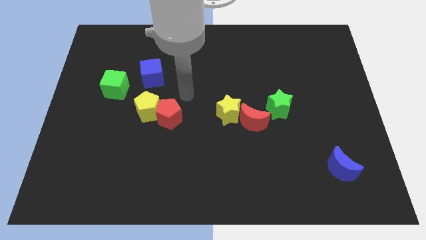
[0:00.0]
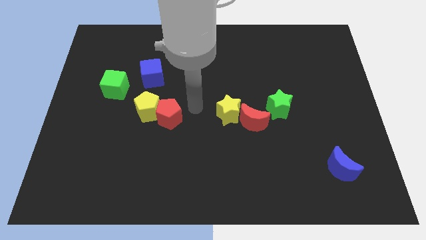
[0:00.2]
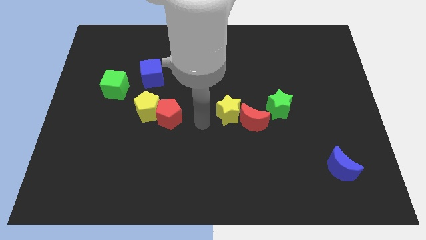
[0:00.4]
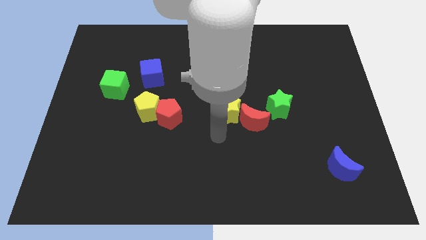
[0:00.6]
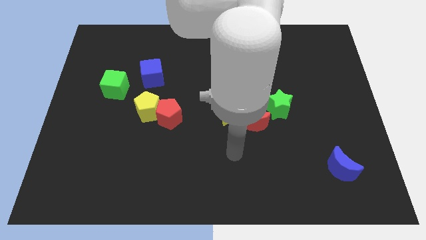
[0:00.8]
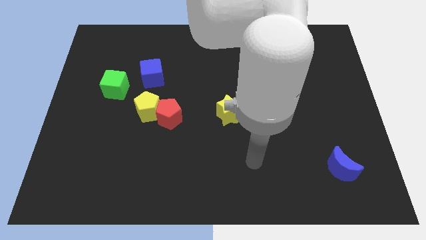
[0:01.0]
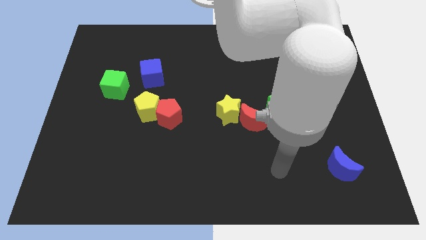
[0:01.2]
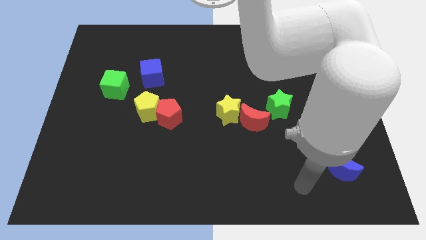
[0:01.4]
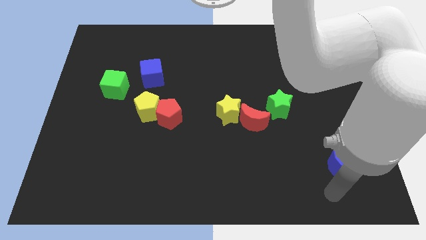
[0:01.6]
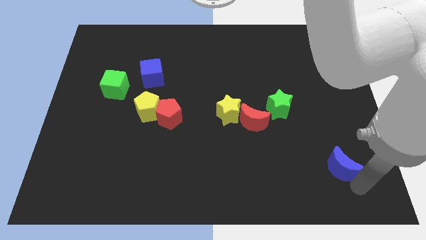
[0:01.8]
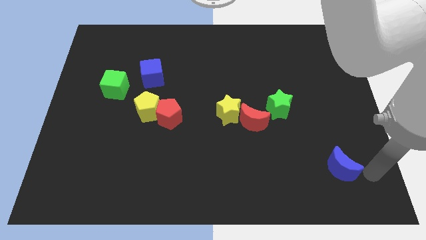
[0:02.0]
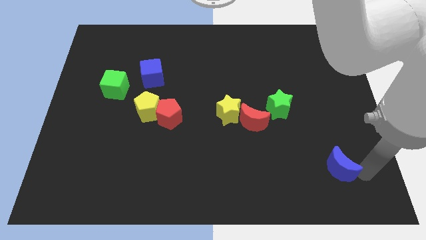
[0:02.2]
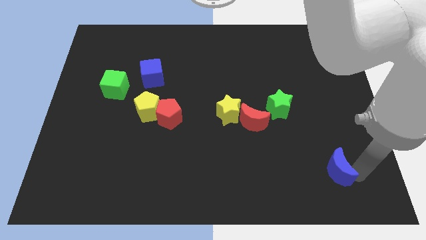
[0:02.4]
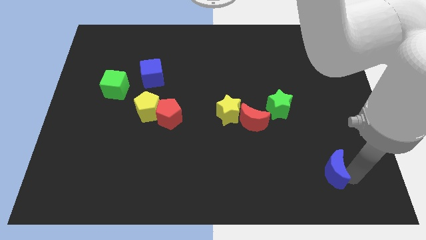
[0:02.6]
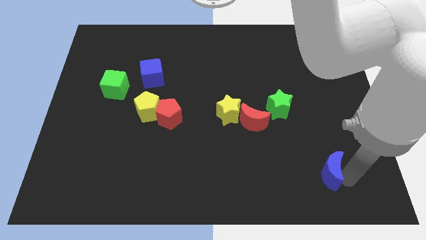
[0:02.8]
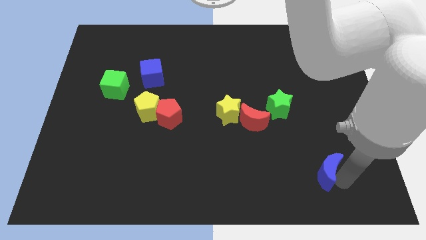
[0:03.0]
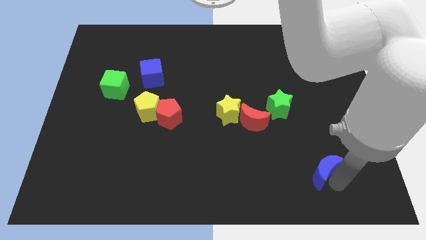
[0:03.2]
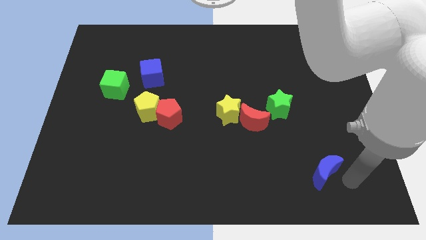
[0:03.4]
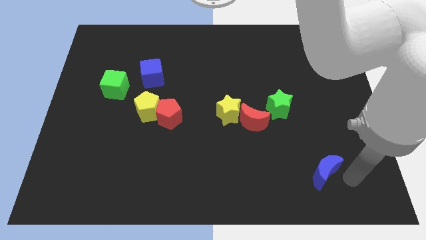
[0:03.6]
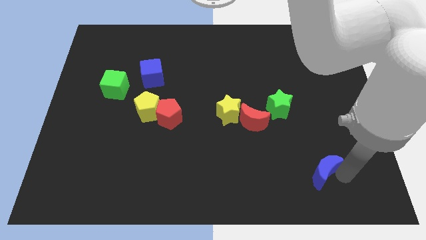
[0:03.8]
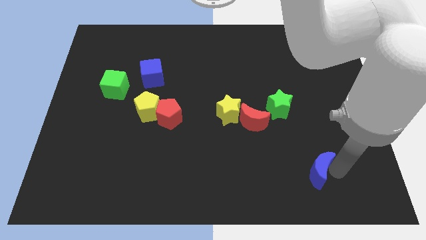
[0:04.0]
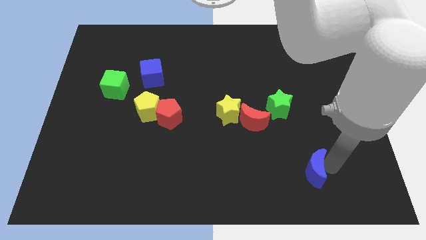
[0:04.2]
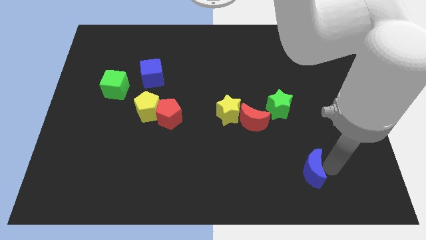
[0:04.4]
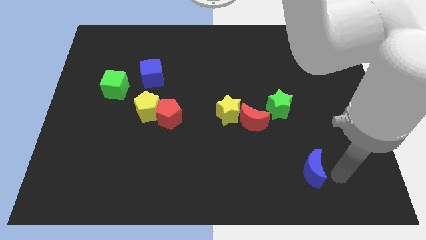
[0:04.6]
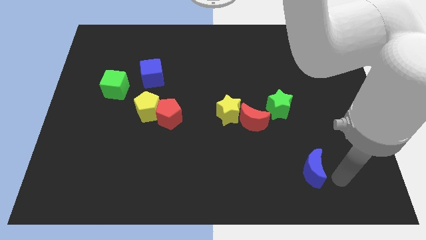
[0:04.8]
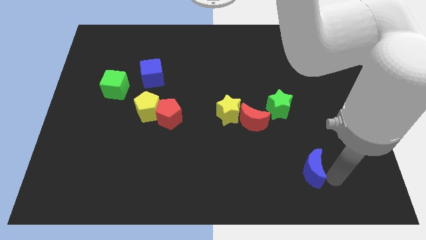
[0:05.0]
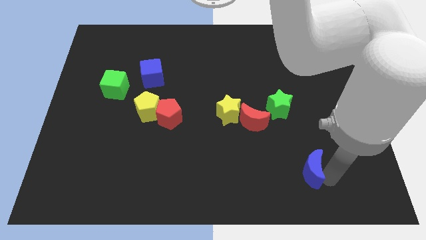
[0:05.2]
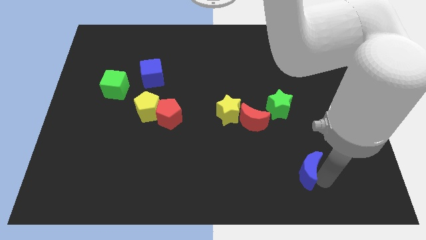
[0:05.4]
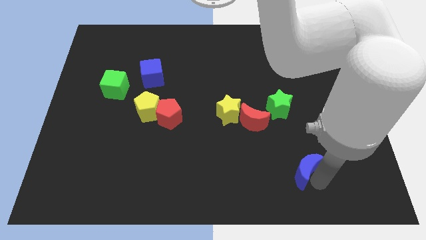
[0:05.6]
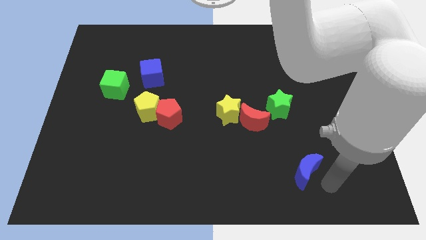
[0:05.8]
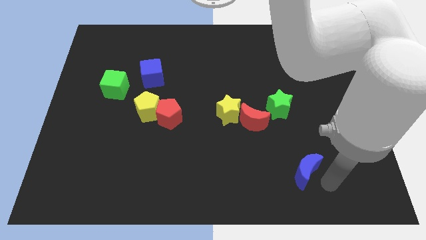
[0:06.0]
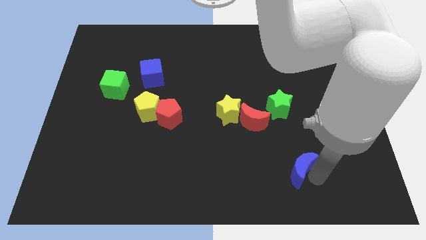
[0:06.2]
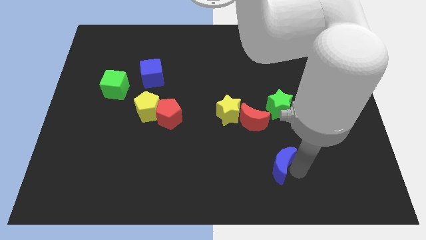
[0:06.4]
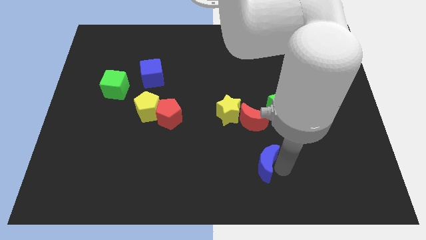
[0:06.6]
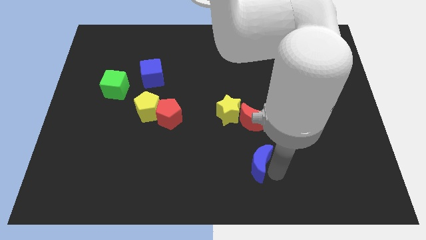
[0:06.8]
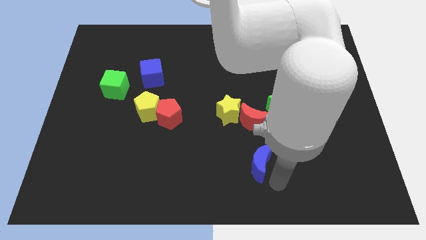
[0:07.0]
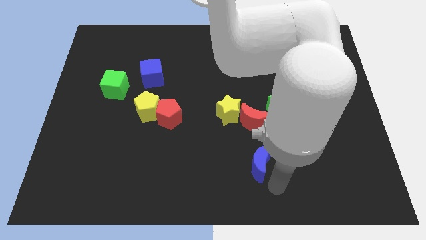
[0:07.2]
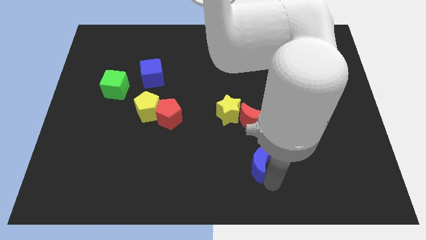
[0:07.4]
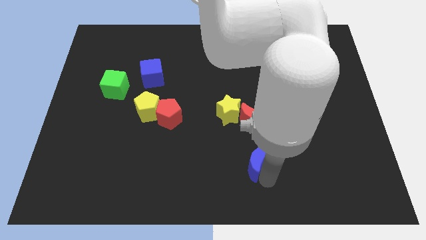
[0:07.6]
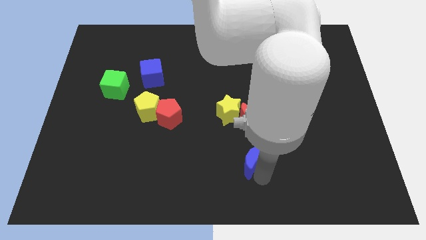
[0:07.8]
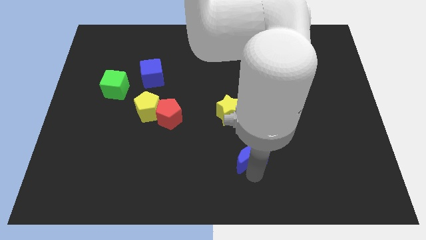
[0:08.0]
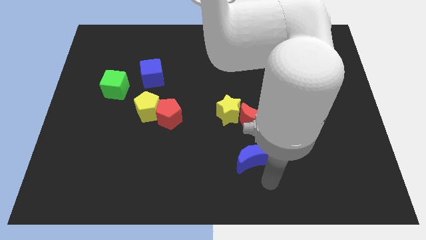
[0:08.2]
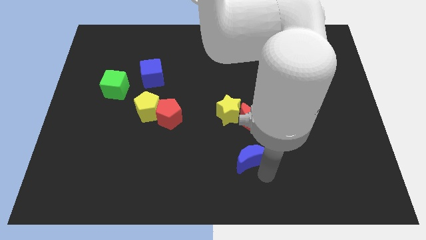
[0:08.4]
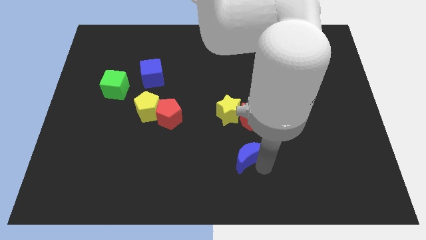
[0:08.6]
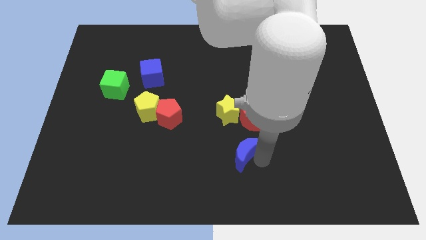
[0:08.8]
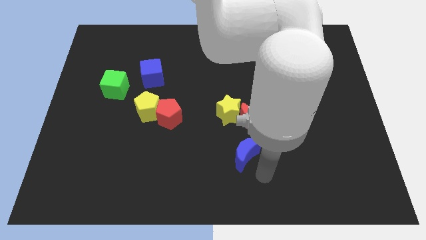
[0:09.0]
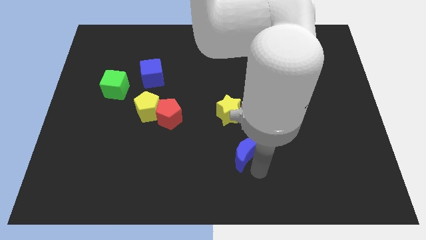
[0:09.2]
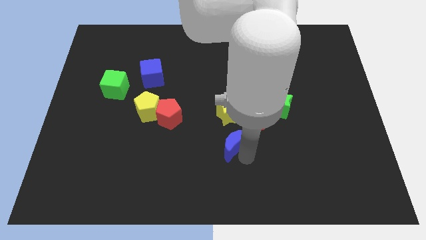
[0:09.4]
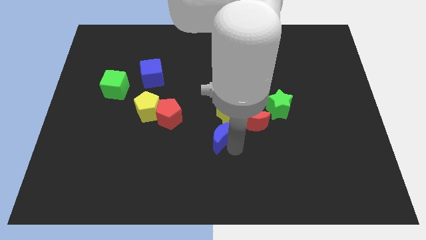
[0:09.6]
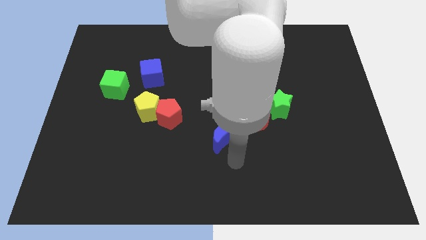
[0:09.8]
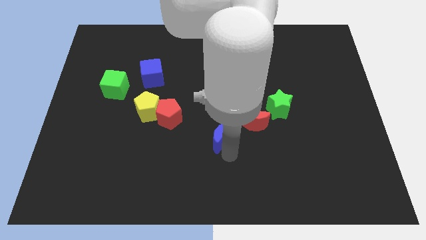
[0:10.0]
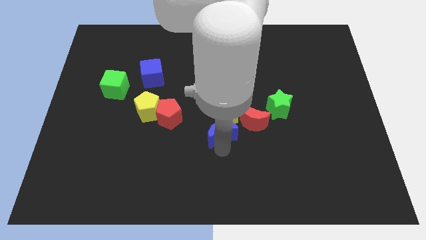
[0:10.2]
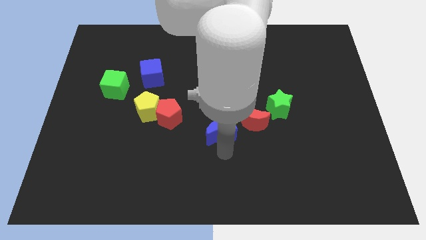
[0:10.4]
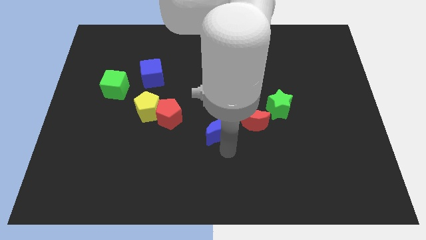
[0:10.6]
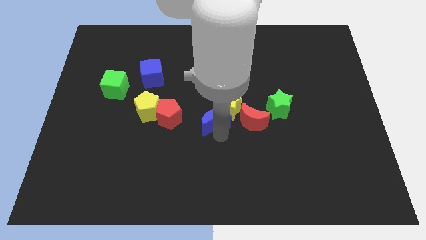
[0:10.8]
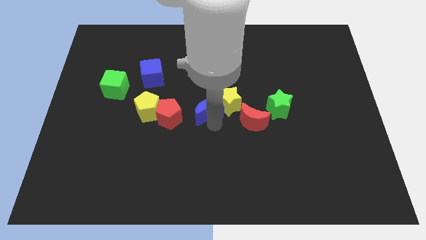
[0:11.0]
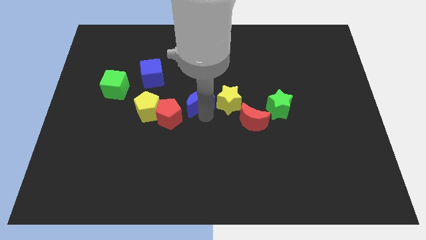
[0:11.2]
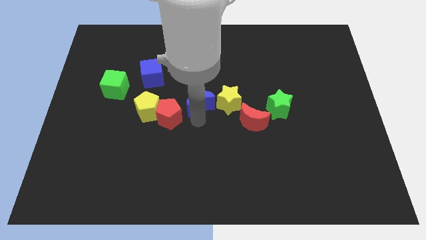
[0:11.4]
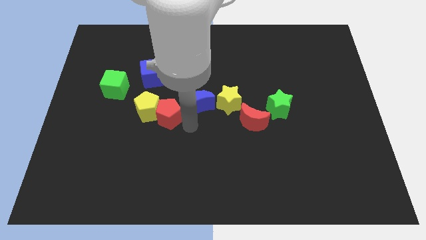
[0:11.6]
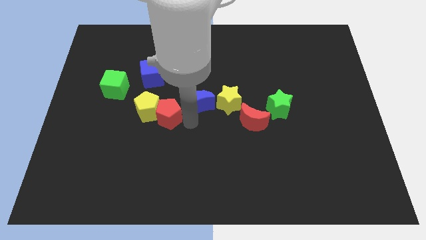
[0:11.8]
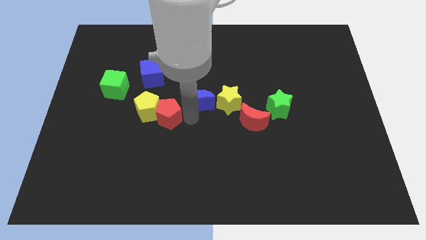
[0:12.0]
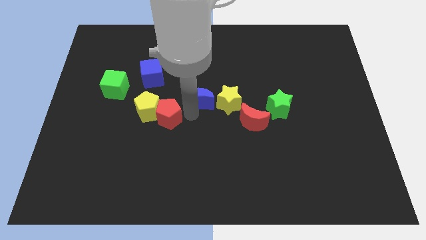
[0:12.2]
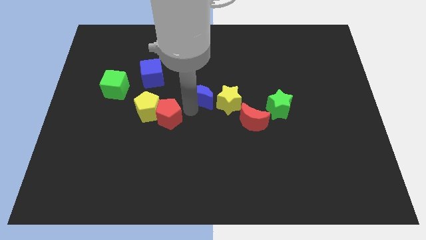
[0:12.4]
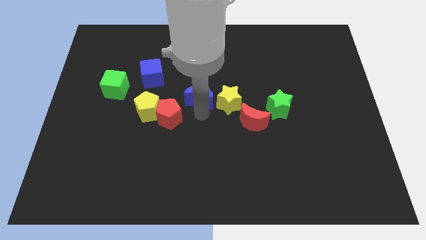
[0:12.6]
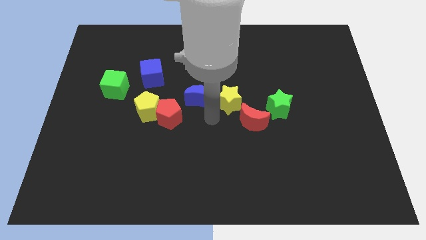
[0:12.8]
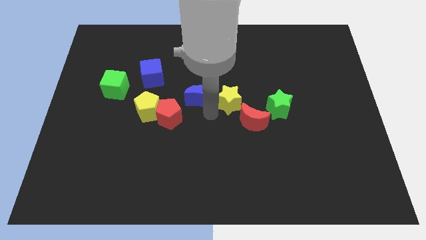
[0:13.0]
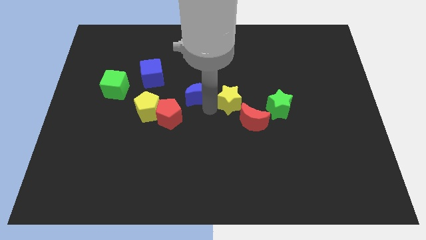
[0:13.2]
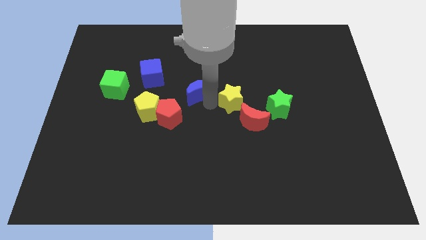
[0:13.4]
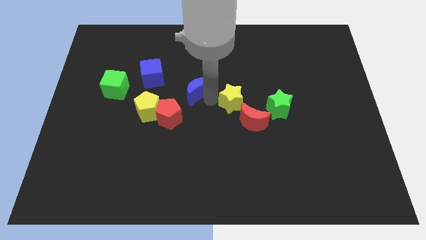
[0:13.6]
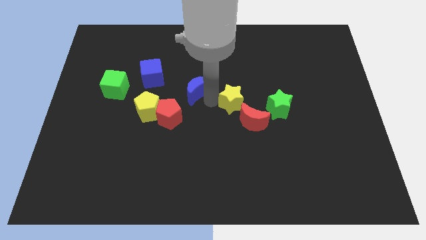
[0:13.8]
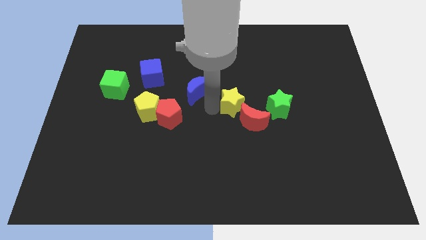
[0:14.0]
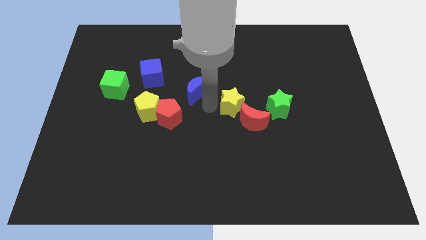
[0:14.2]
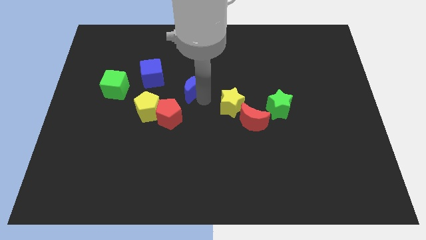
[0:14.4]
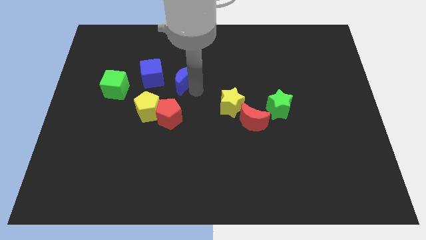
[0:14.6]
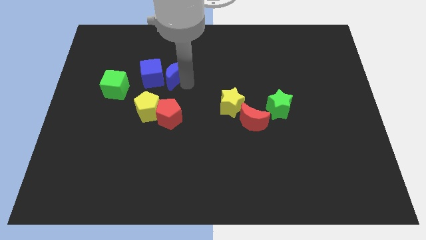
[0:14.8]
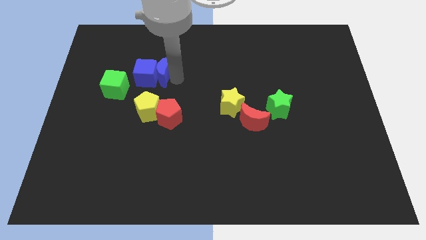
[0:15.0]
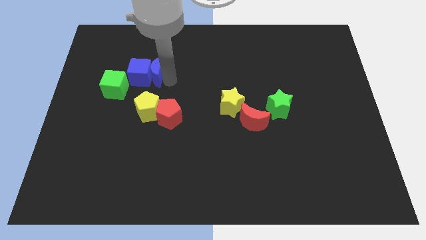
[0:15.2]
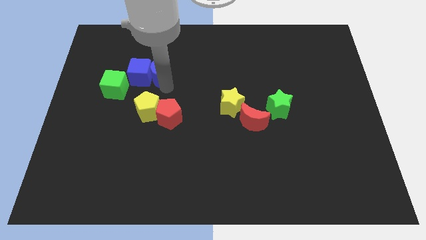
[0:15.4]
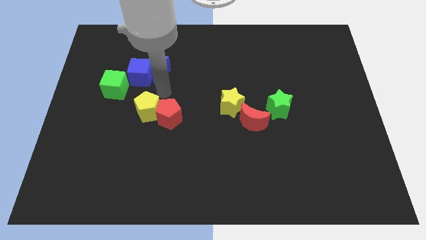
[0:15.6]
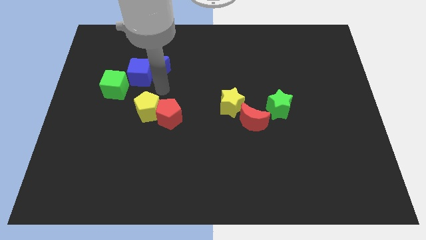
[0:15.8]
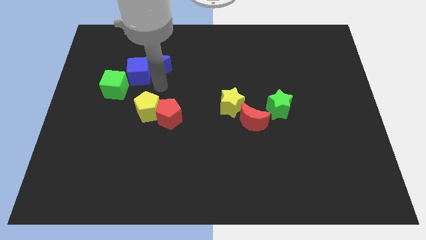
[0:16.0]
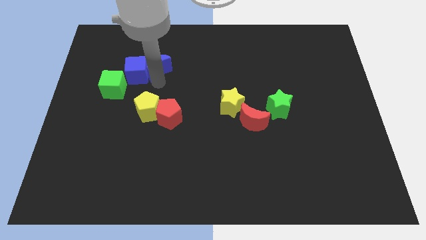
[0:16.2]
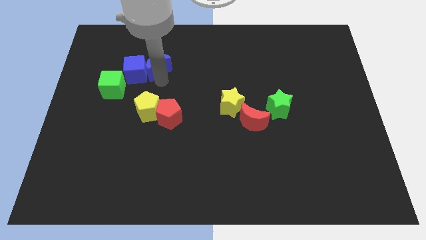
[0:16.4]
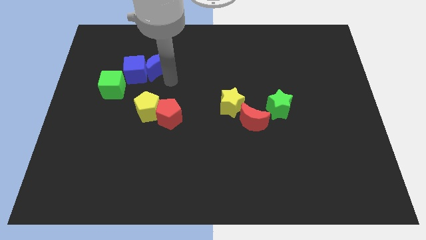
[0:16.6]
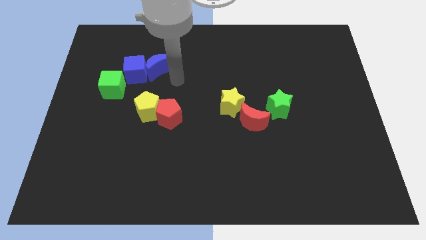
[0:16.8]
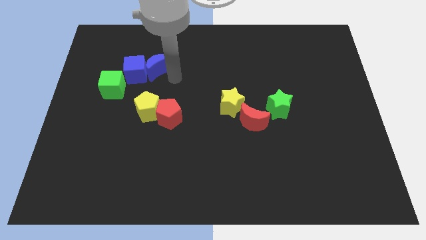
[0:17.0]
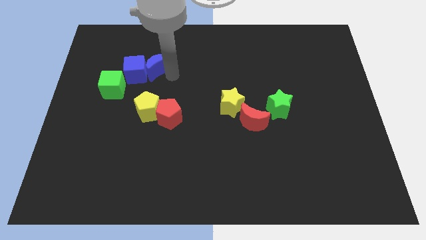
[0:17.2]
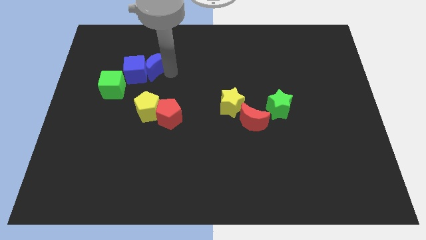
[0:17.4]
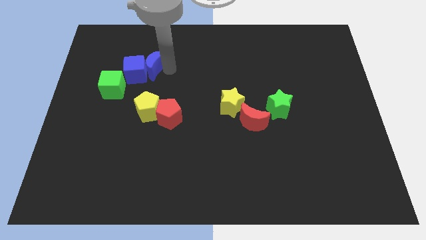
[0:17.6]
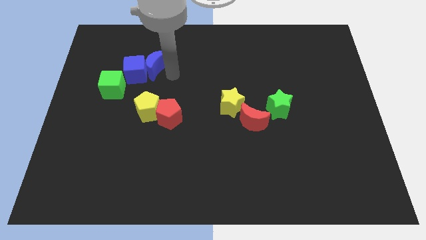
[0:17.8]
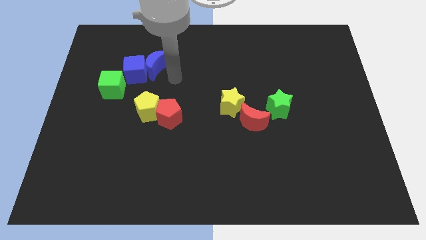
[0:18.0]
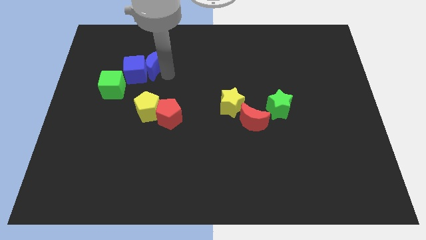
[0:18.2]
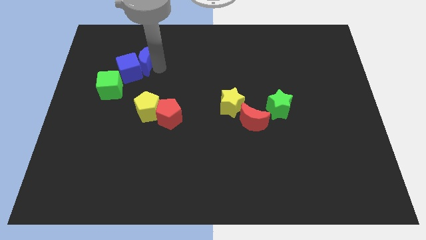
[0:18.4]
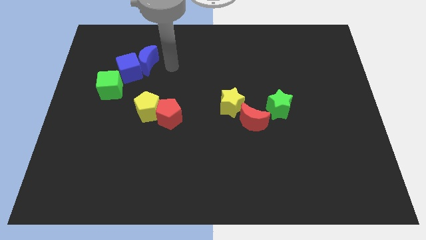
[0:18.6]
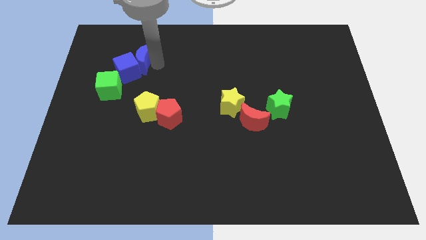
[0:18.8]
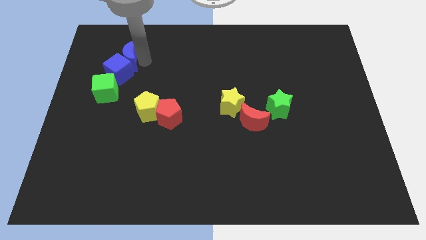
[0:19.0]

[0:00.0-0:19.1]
push the blue moon above the green cube
